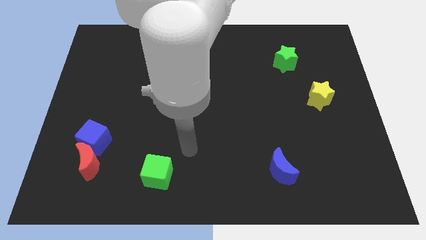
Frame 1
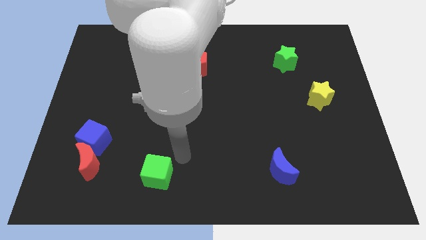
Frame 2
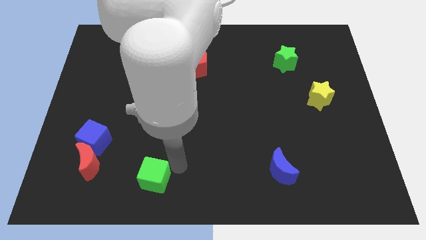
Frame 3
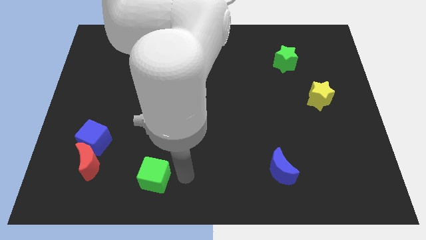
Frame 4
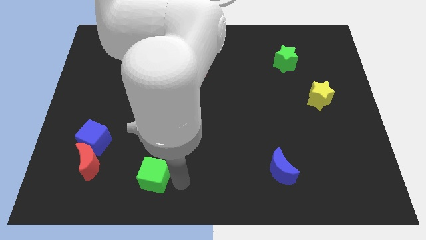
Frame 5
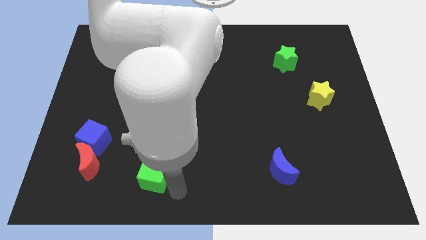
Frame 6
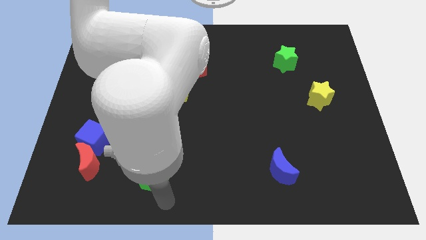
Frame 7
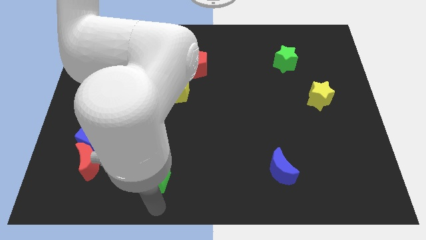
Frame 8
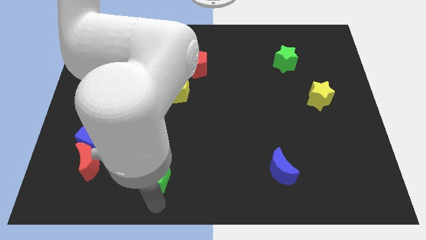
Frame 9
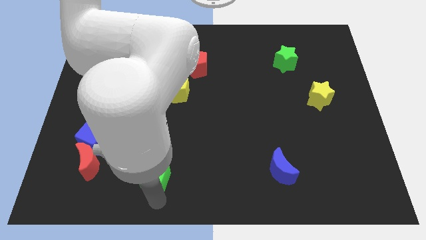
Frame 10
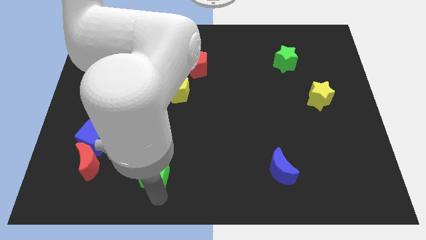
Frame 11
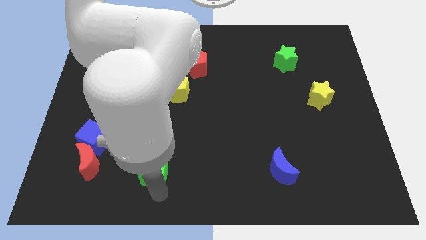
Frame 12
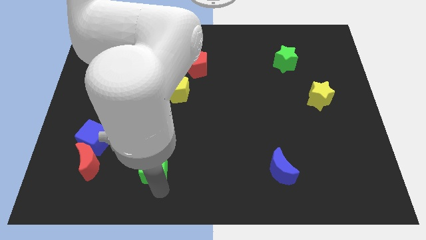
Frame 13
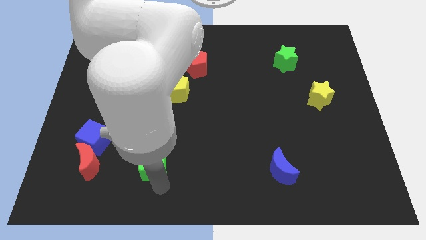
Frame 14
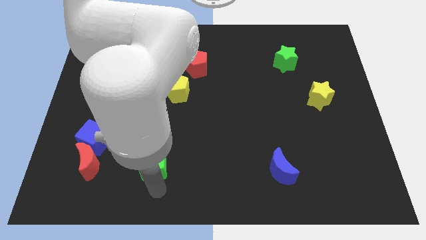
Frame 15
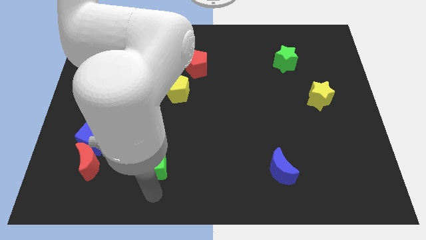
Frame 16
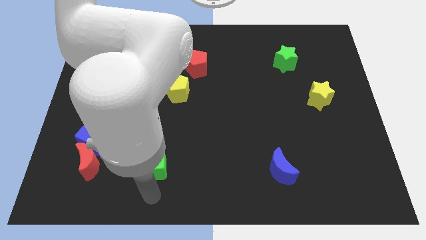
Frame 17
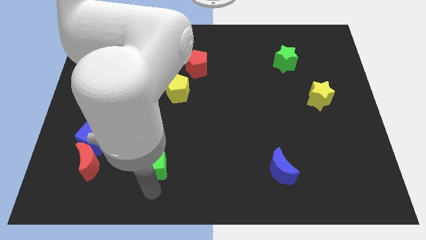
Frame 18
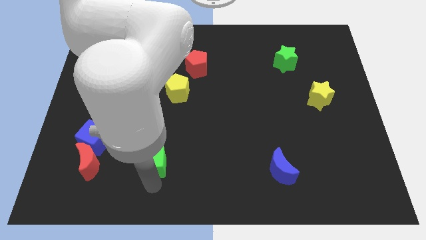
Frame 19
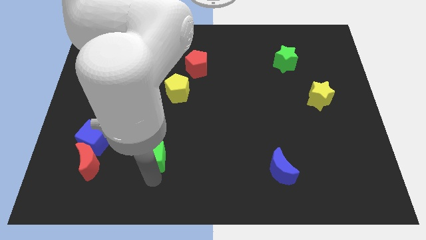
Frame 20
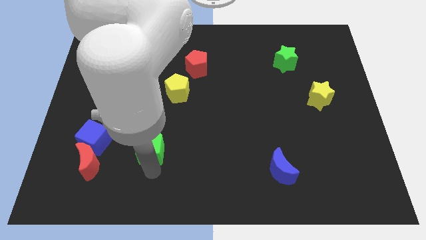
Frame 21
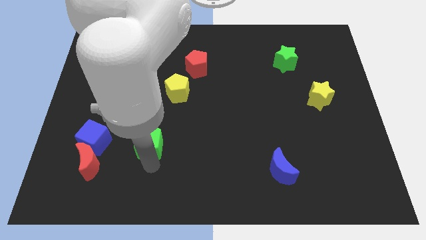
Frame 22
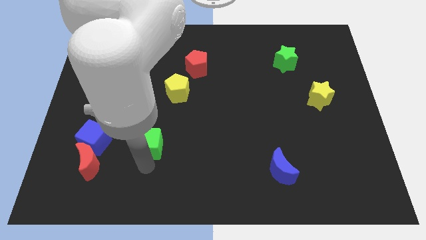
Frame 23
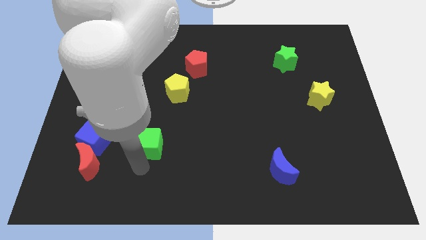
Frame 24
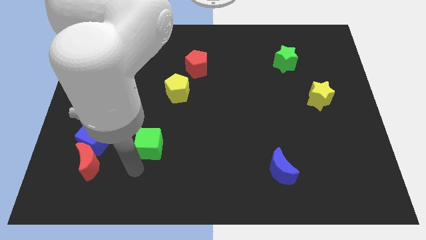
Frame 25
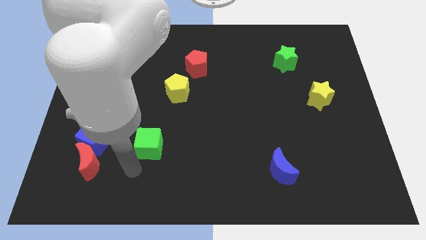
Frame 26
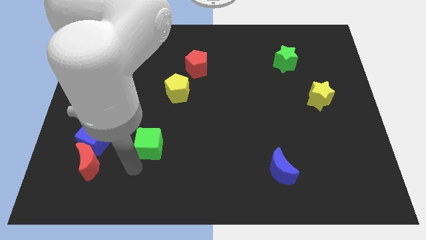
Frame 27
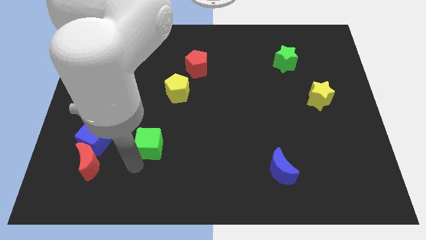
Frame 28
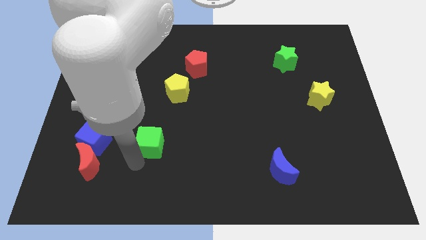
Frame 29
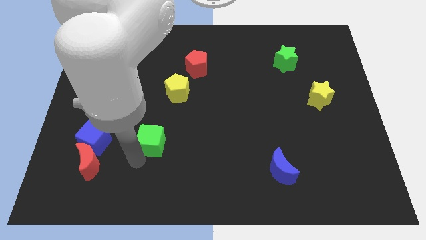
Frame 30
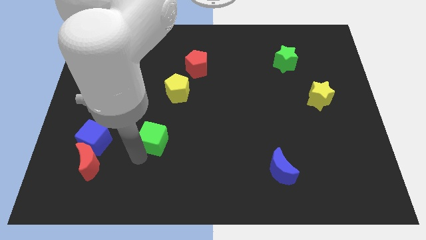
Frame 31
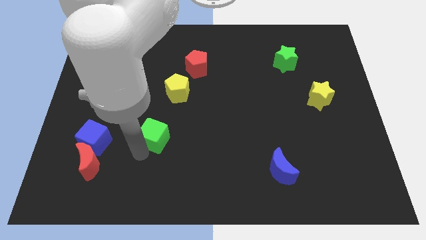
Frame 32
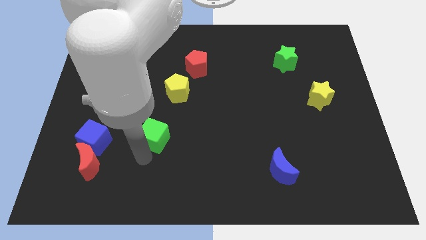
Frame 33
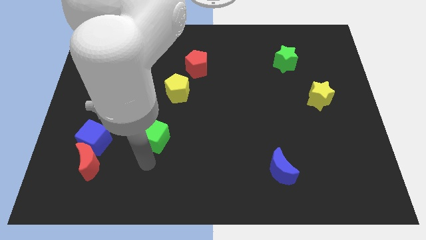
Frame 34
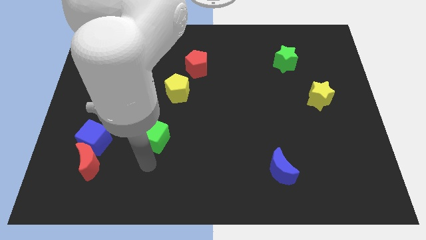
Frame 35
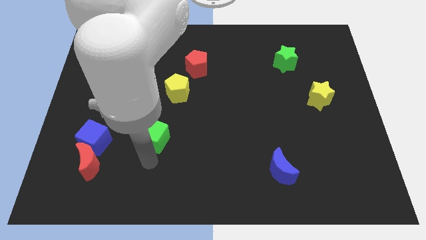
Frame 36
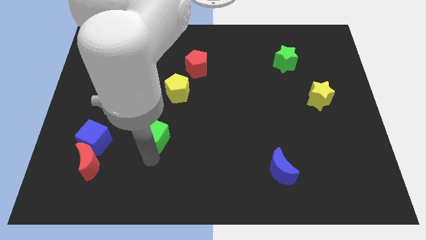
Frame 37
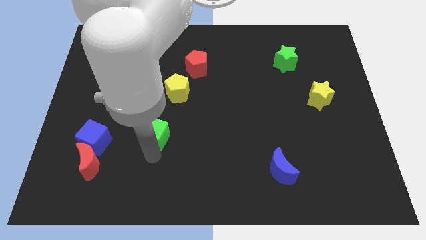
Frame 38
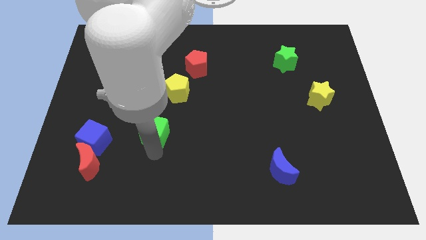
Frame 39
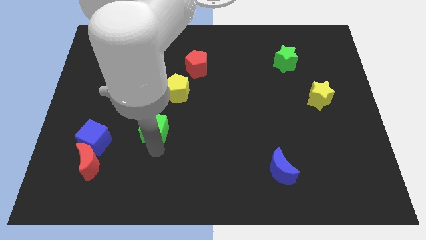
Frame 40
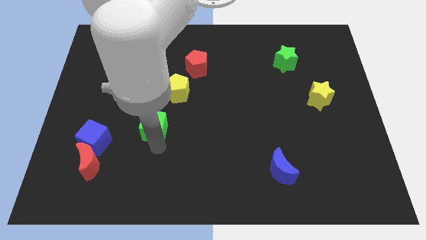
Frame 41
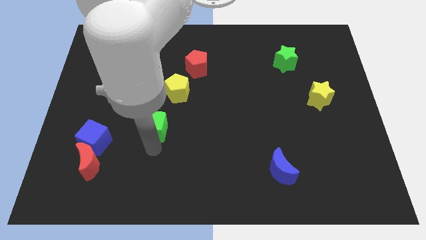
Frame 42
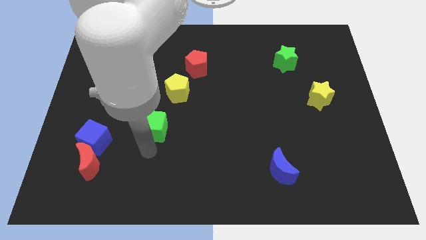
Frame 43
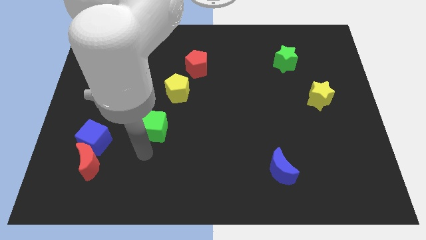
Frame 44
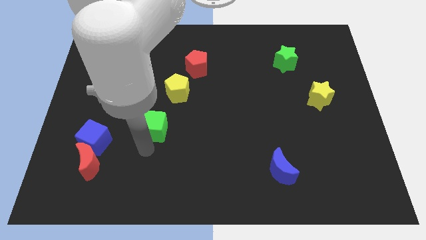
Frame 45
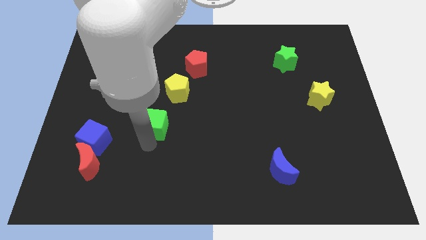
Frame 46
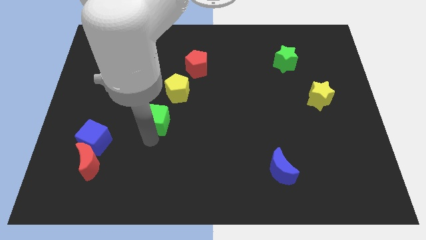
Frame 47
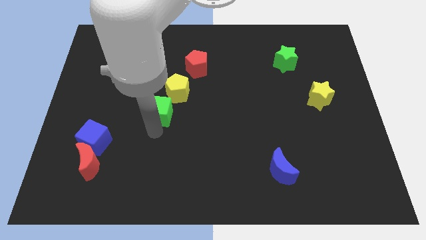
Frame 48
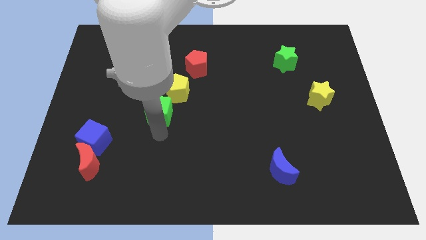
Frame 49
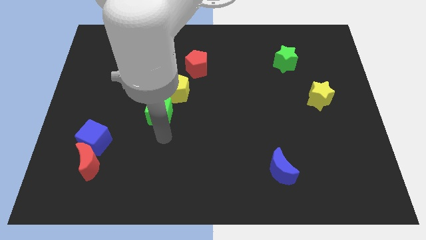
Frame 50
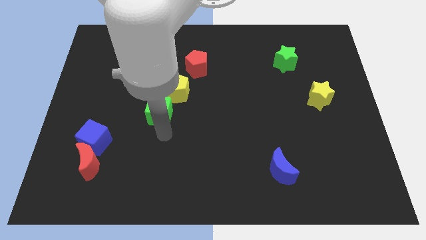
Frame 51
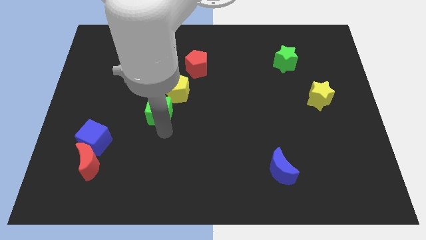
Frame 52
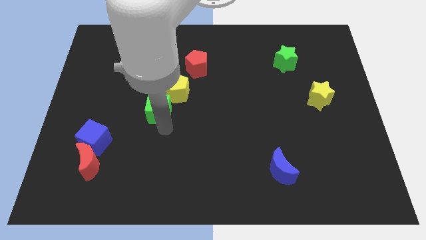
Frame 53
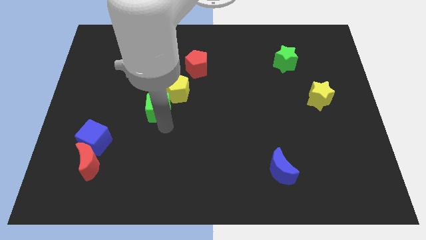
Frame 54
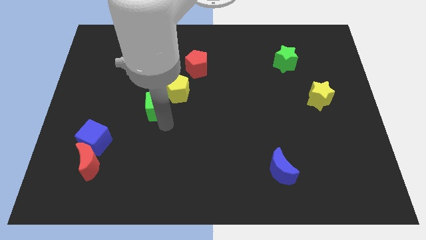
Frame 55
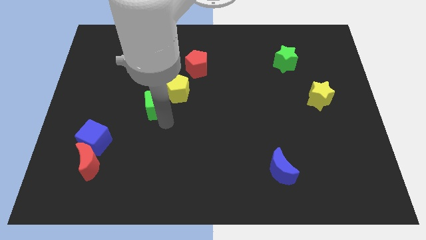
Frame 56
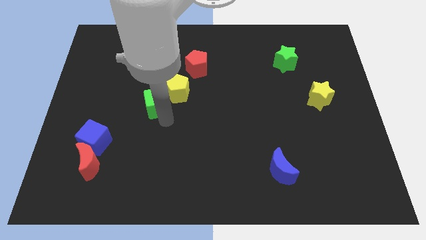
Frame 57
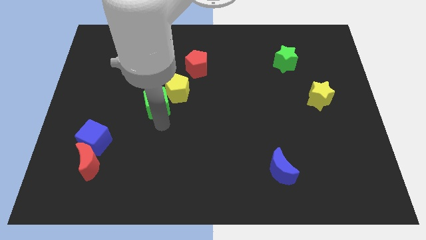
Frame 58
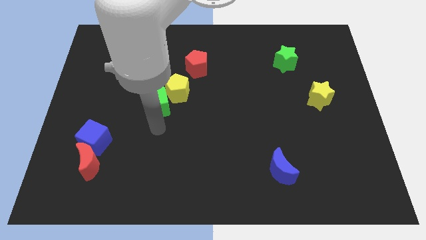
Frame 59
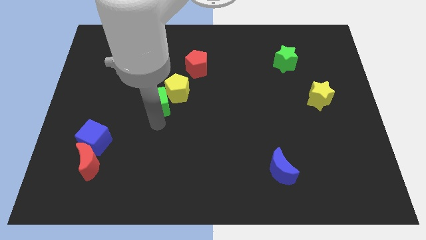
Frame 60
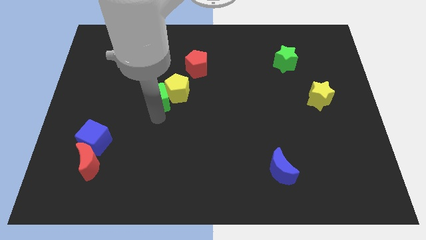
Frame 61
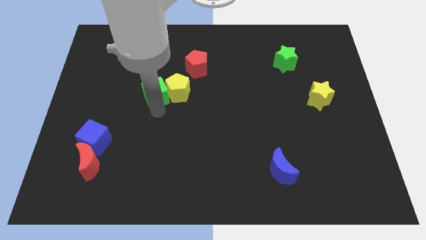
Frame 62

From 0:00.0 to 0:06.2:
move the green cube upwards

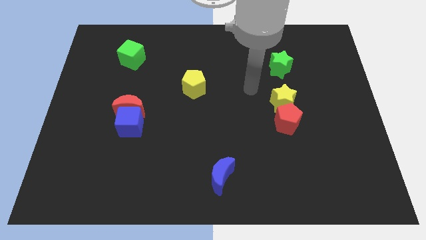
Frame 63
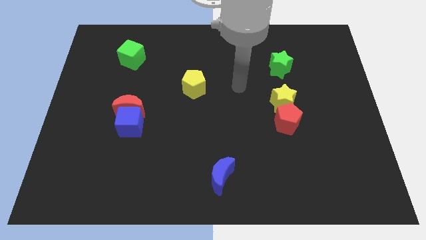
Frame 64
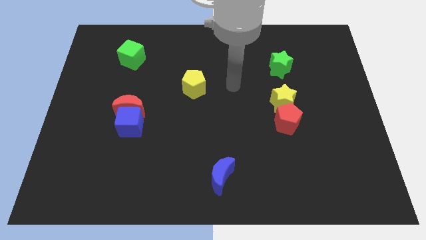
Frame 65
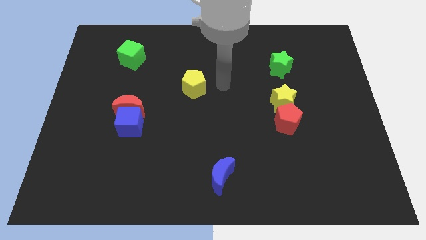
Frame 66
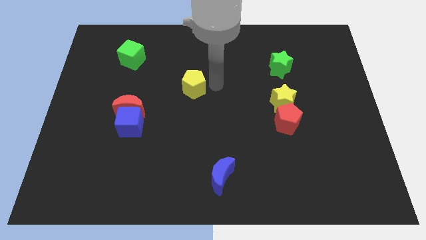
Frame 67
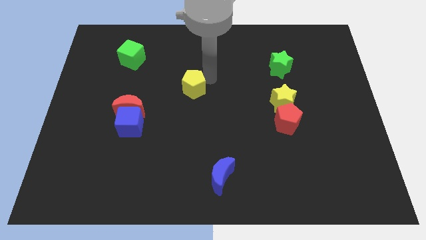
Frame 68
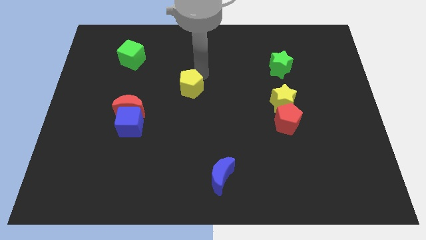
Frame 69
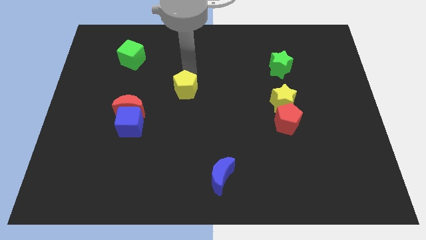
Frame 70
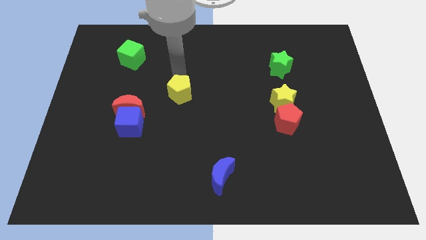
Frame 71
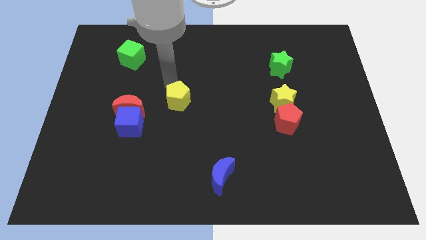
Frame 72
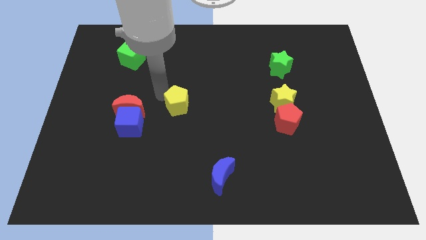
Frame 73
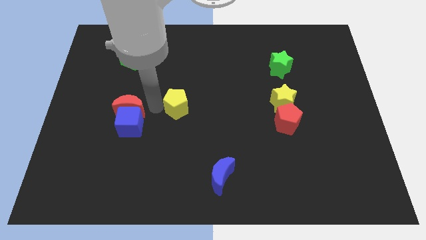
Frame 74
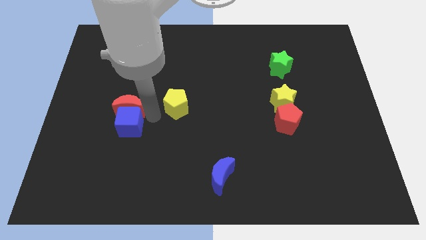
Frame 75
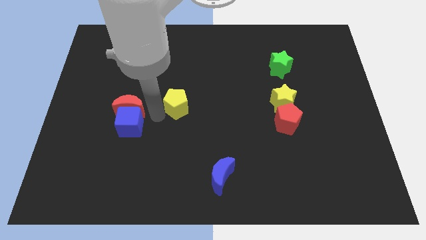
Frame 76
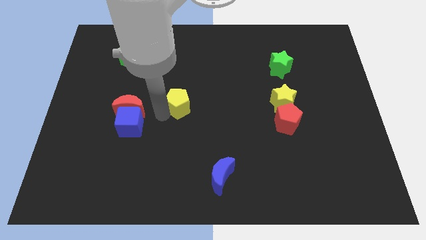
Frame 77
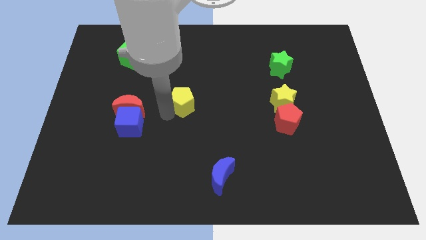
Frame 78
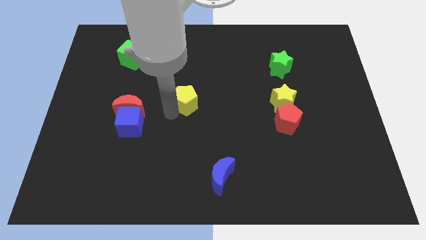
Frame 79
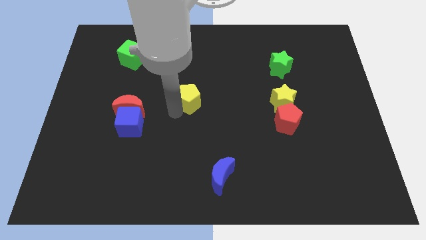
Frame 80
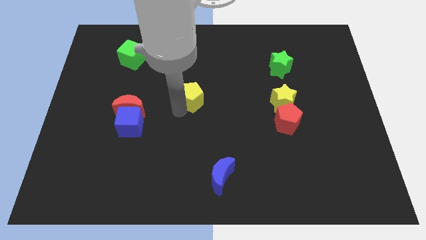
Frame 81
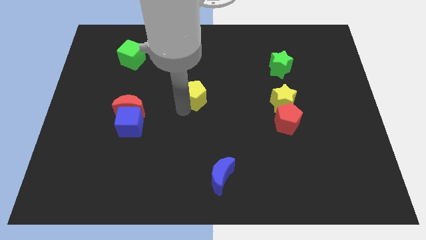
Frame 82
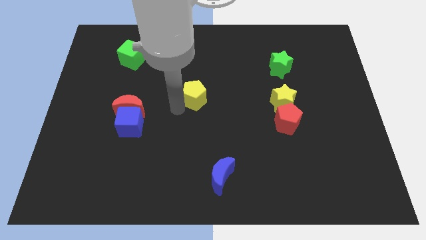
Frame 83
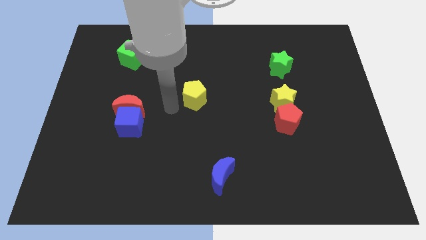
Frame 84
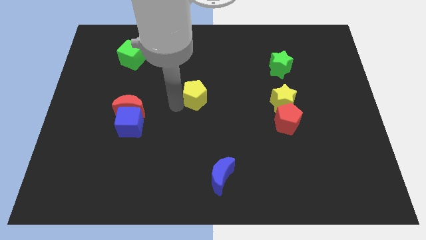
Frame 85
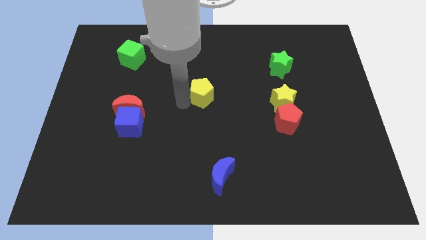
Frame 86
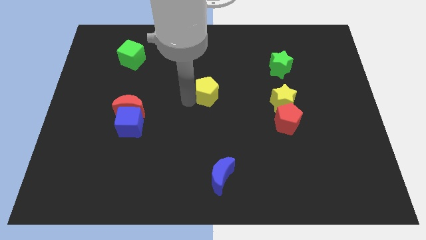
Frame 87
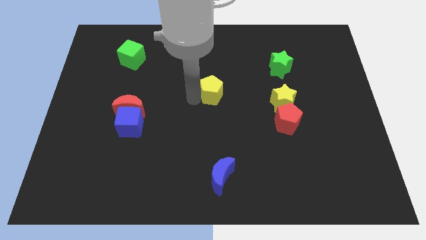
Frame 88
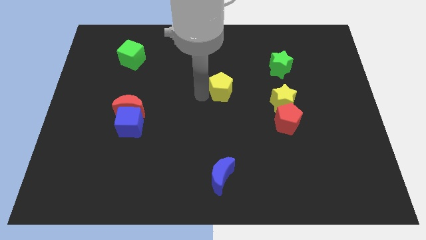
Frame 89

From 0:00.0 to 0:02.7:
slightly push the yellow pentagon to the right
